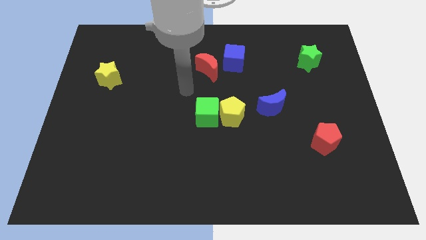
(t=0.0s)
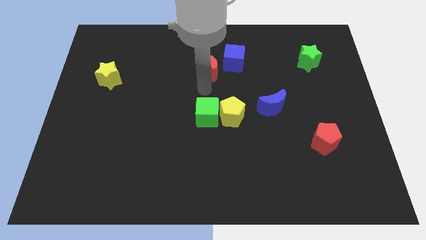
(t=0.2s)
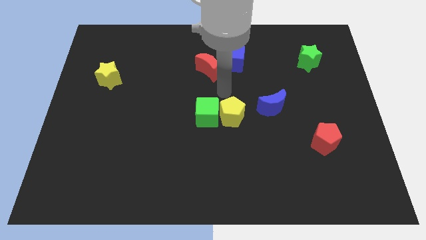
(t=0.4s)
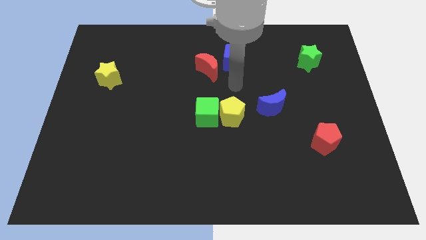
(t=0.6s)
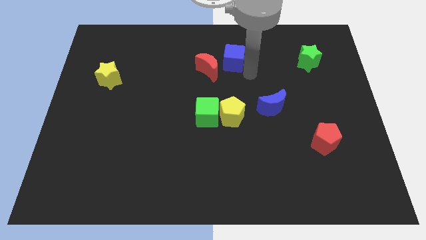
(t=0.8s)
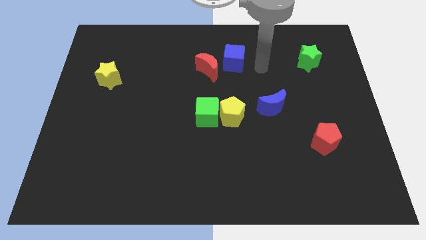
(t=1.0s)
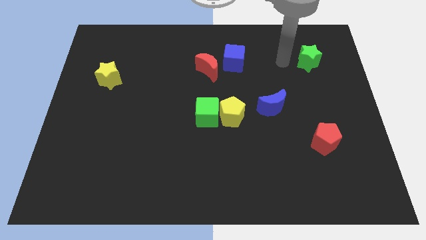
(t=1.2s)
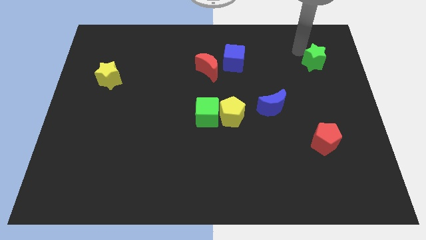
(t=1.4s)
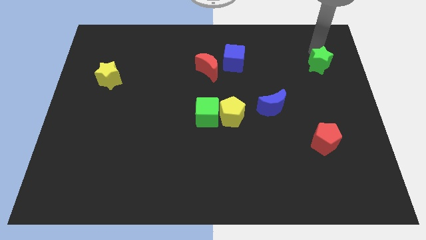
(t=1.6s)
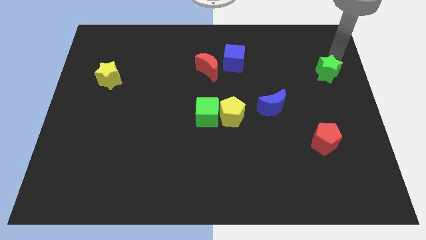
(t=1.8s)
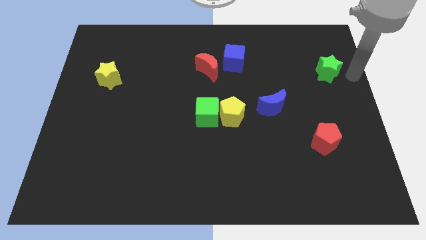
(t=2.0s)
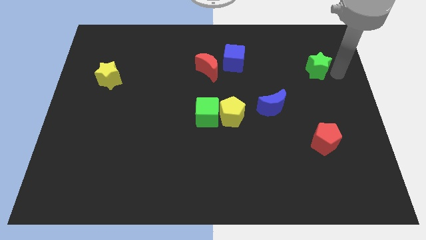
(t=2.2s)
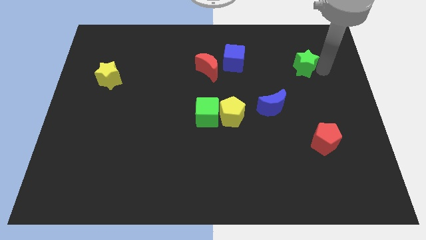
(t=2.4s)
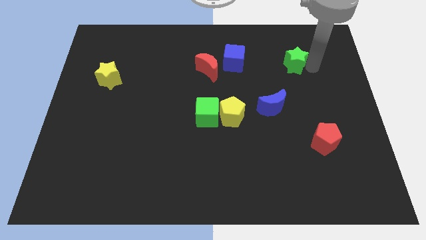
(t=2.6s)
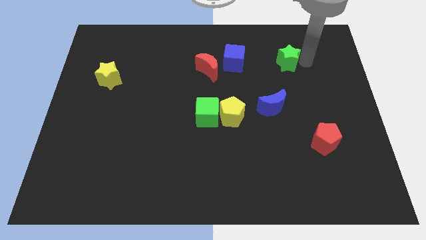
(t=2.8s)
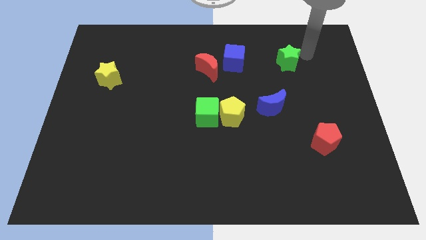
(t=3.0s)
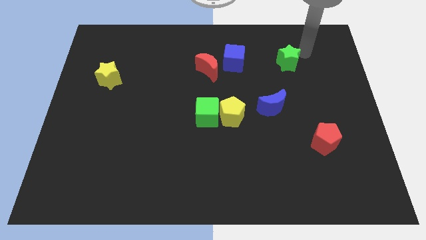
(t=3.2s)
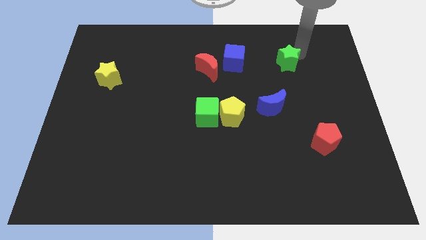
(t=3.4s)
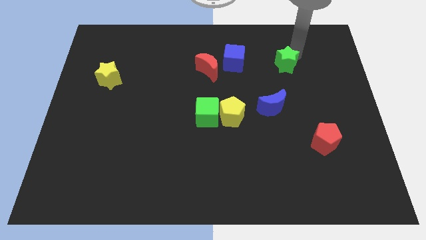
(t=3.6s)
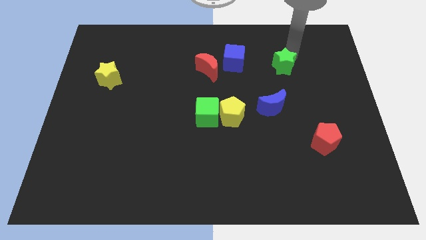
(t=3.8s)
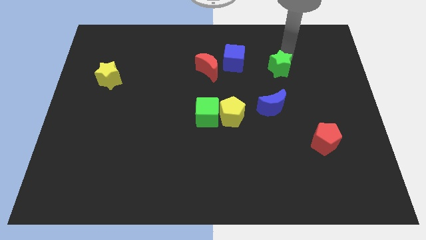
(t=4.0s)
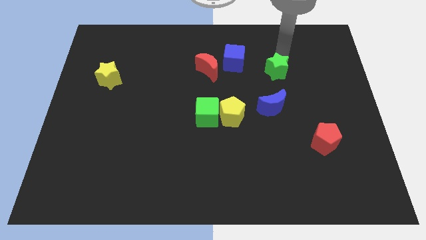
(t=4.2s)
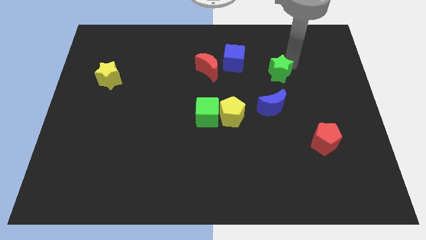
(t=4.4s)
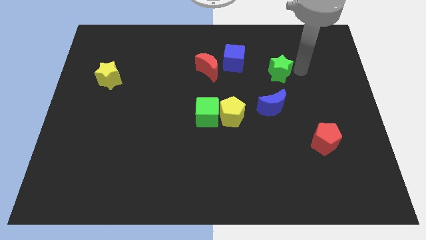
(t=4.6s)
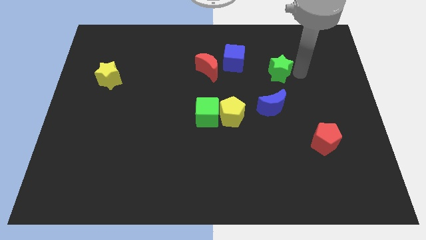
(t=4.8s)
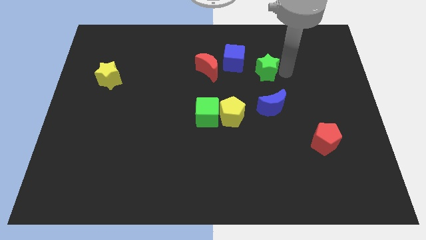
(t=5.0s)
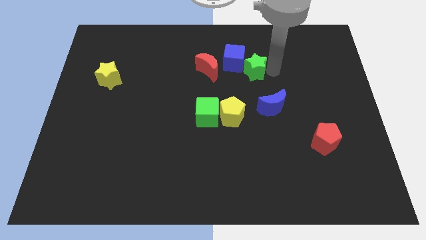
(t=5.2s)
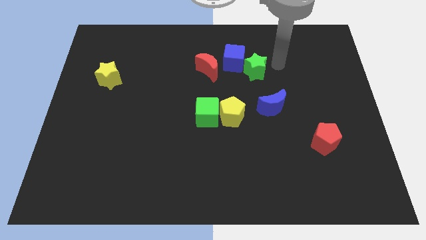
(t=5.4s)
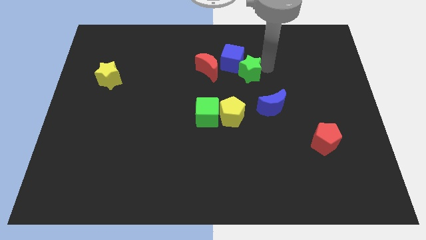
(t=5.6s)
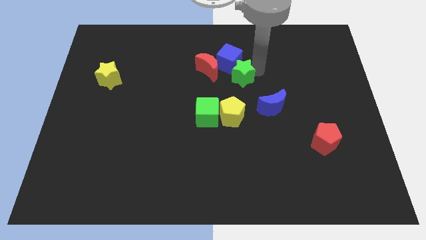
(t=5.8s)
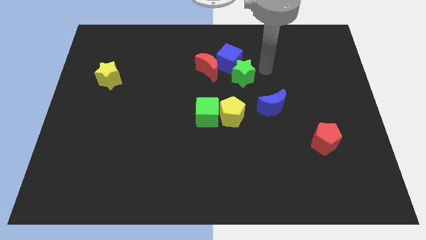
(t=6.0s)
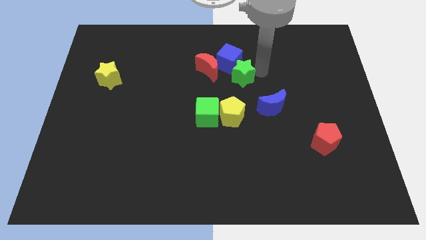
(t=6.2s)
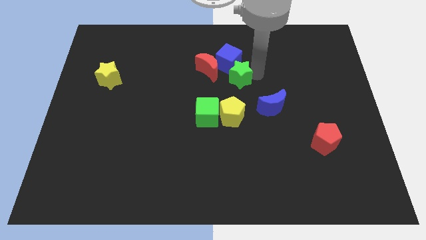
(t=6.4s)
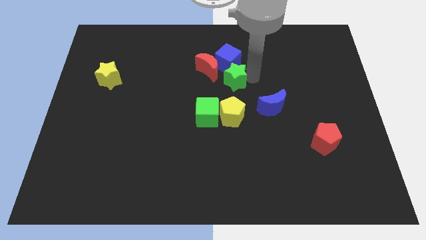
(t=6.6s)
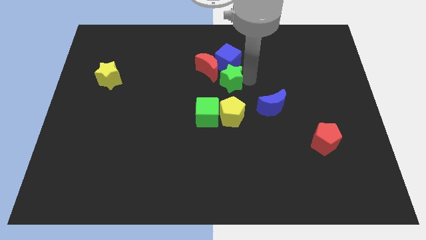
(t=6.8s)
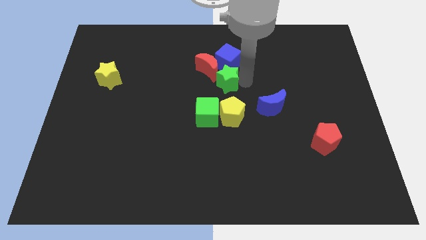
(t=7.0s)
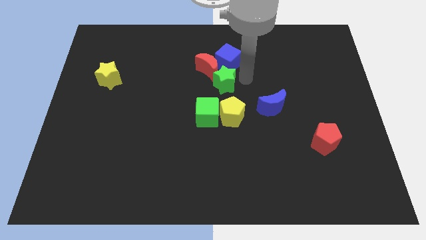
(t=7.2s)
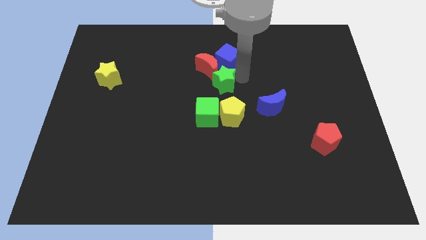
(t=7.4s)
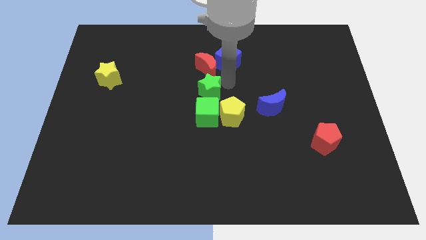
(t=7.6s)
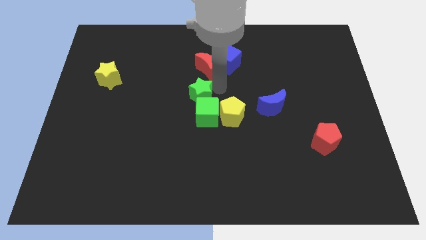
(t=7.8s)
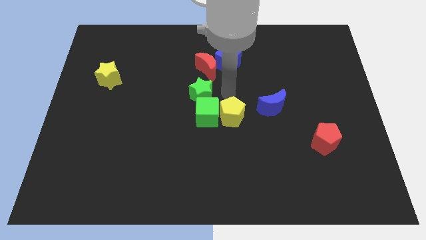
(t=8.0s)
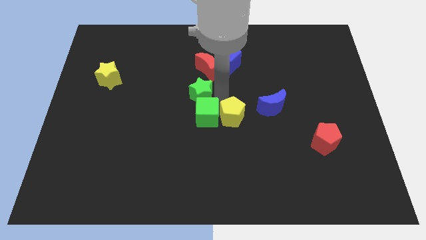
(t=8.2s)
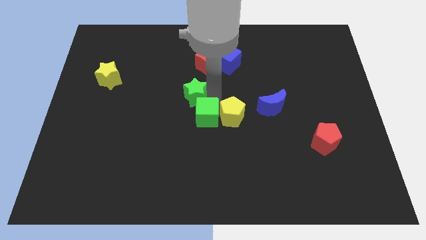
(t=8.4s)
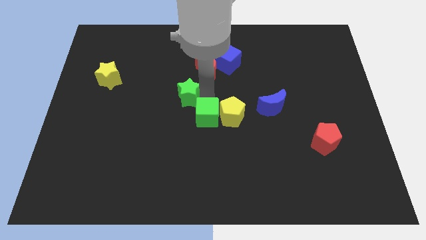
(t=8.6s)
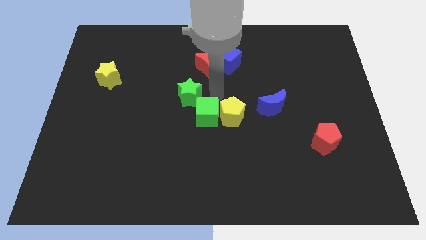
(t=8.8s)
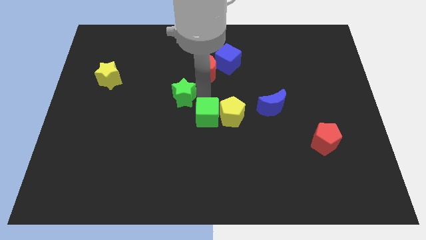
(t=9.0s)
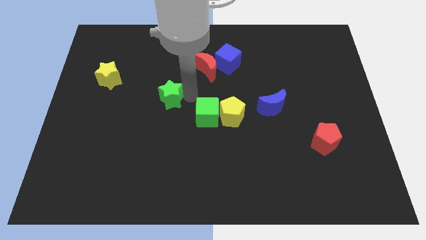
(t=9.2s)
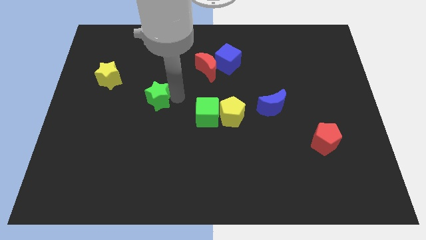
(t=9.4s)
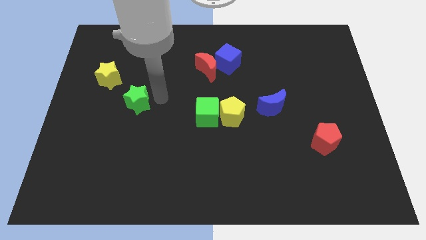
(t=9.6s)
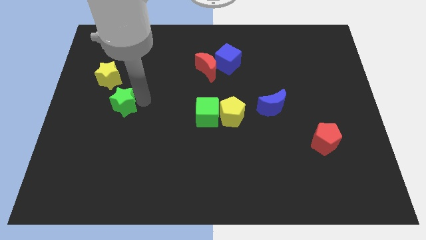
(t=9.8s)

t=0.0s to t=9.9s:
push the green star to the bottom of the yellow star

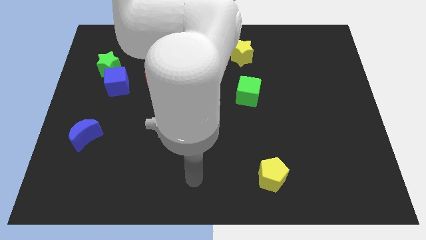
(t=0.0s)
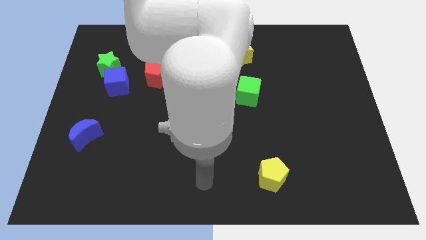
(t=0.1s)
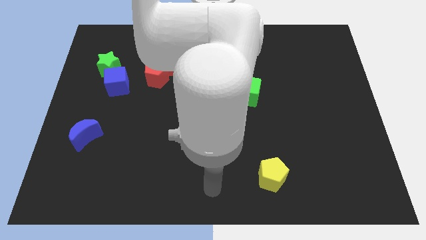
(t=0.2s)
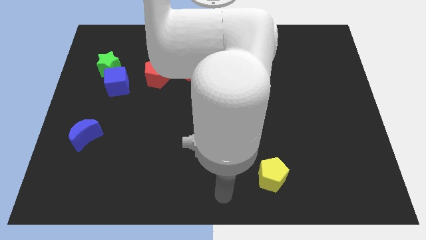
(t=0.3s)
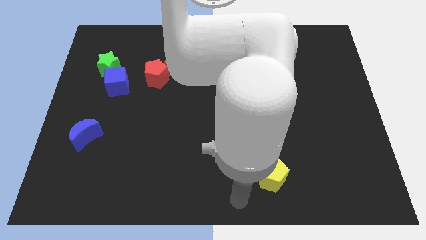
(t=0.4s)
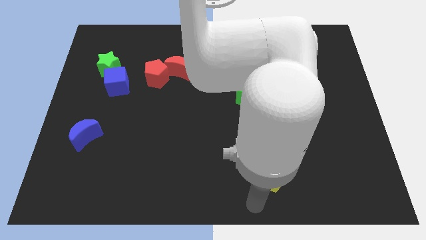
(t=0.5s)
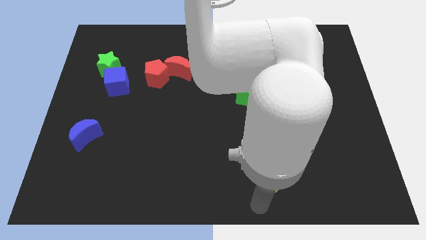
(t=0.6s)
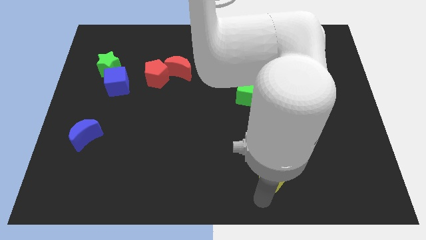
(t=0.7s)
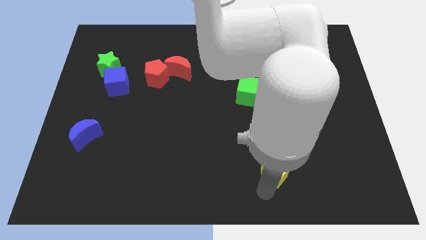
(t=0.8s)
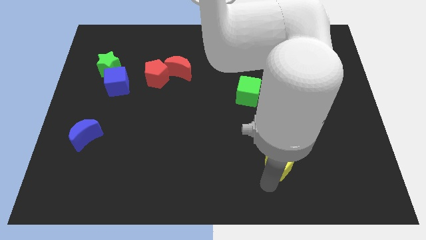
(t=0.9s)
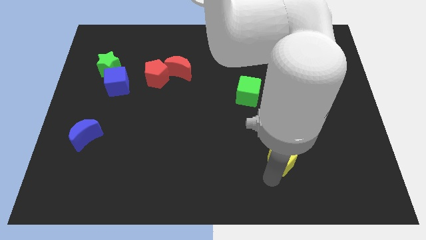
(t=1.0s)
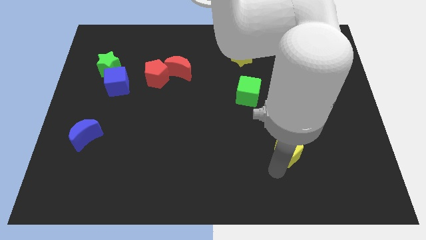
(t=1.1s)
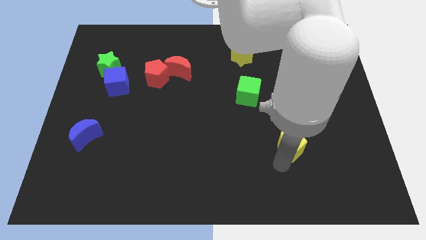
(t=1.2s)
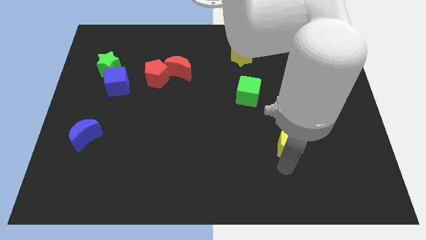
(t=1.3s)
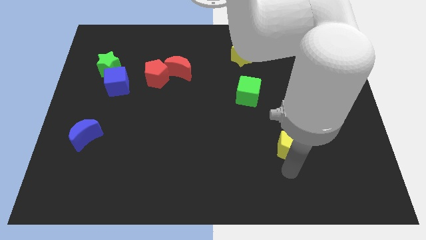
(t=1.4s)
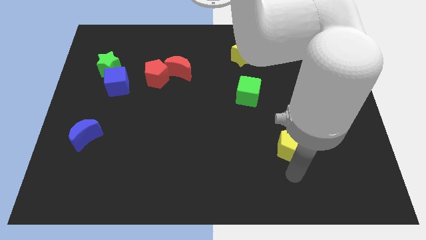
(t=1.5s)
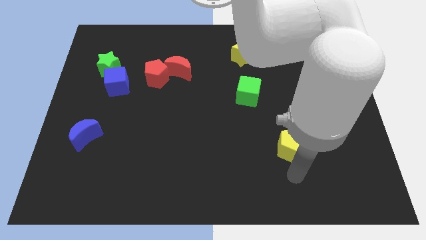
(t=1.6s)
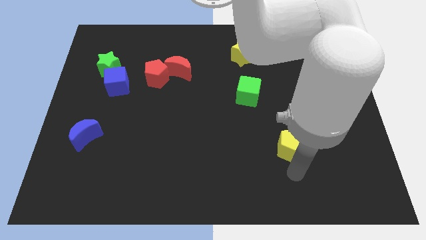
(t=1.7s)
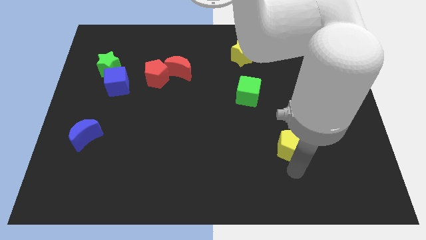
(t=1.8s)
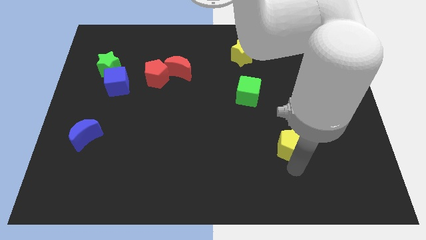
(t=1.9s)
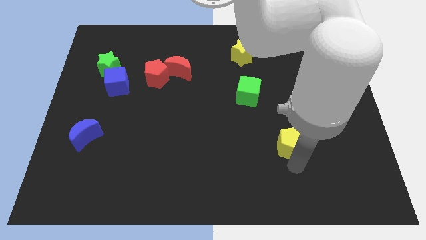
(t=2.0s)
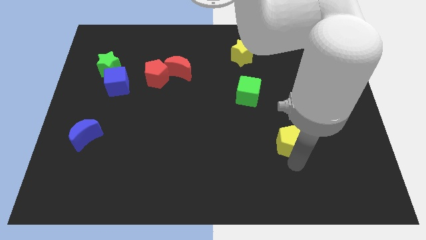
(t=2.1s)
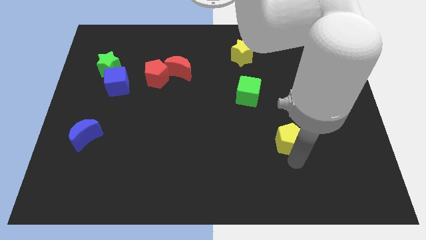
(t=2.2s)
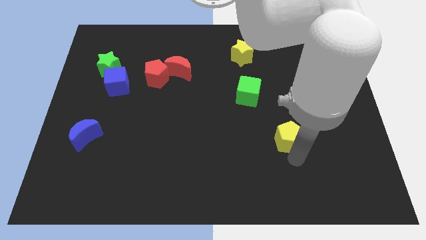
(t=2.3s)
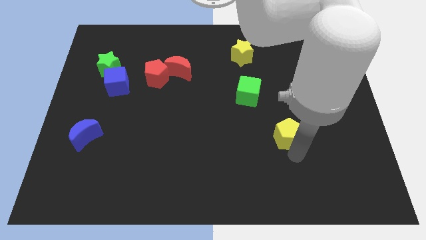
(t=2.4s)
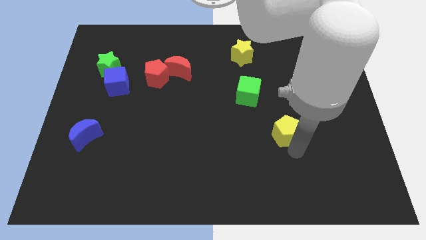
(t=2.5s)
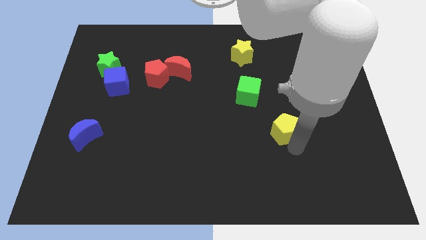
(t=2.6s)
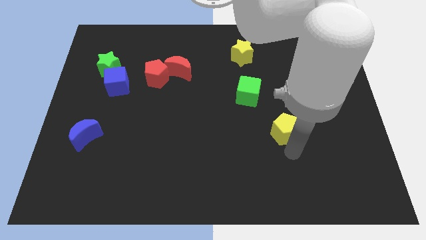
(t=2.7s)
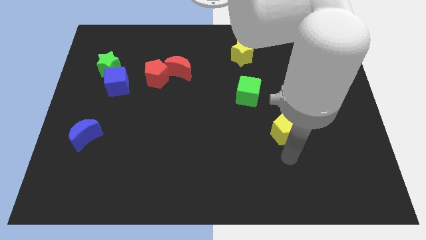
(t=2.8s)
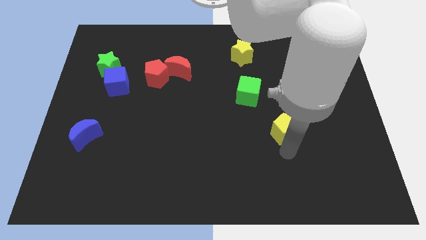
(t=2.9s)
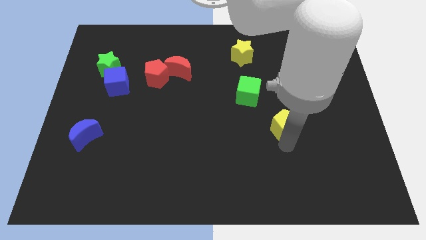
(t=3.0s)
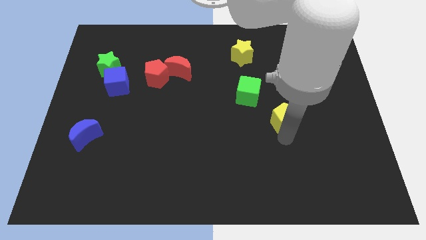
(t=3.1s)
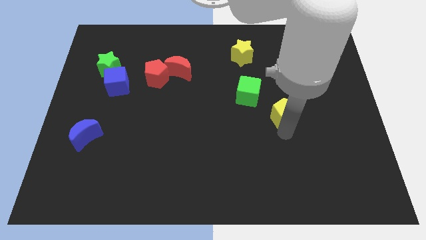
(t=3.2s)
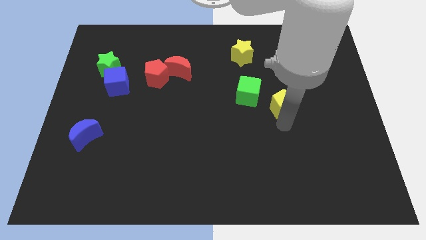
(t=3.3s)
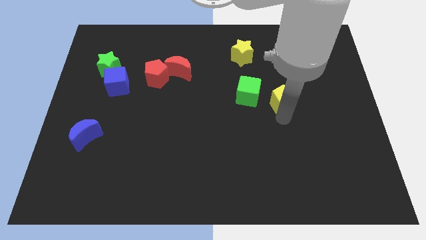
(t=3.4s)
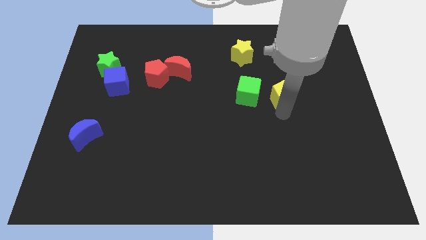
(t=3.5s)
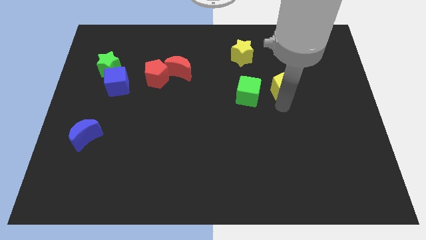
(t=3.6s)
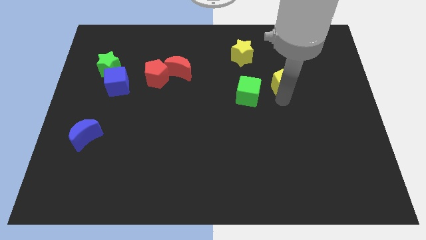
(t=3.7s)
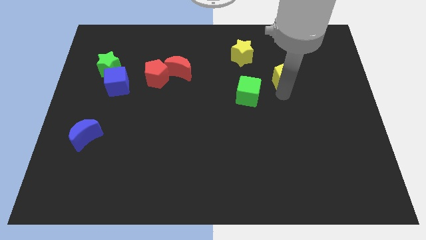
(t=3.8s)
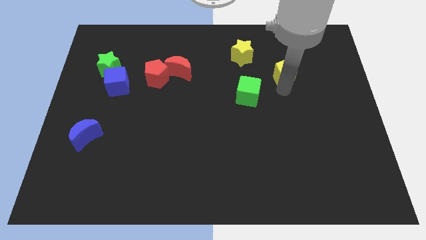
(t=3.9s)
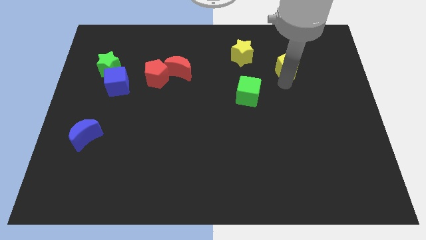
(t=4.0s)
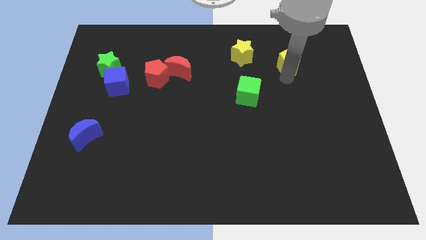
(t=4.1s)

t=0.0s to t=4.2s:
push the yellow pentagon to the right of the yellow star
